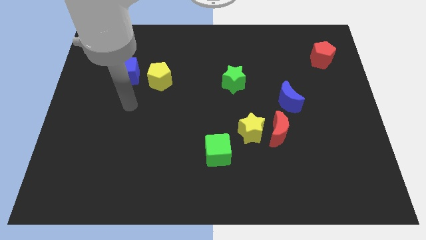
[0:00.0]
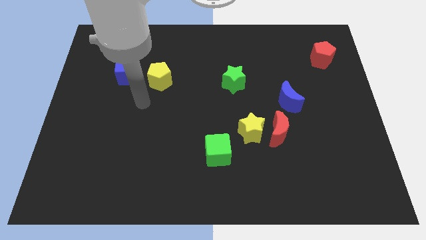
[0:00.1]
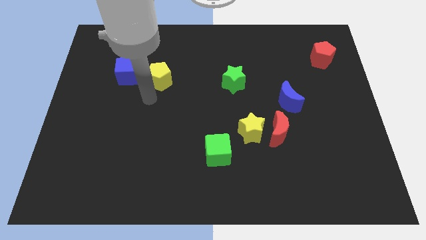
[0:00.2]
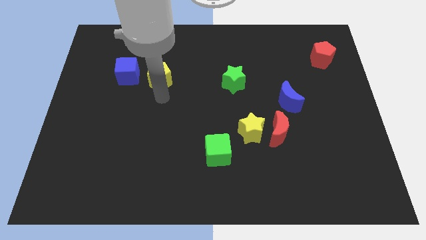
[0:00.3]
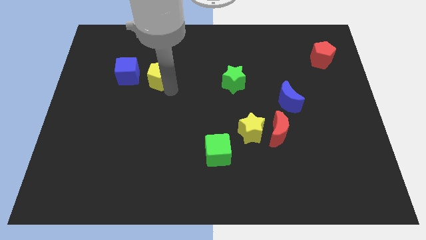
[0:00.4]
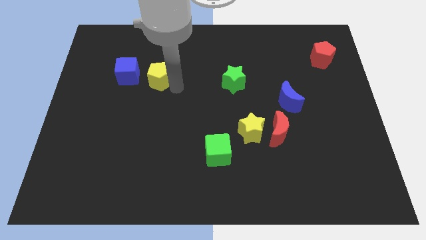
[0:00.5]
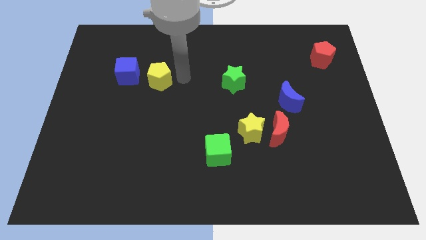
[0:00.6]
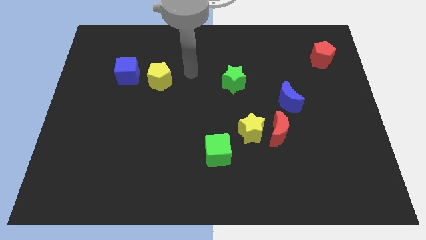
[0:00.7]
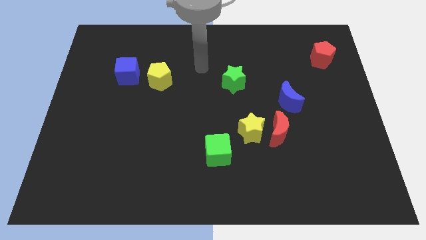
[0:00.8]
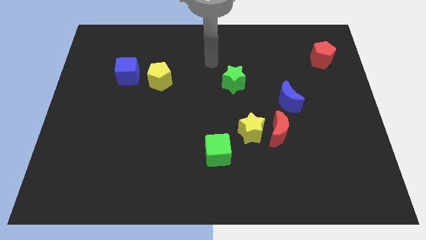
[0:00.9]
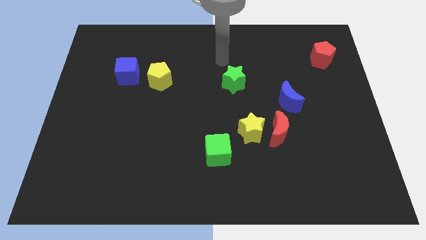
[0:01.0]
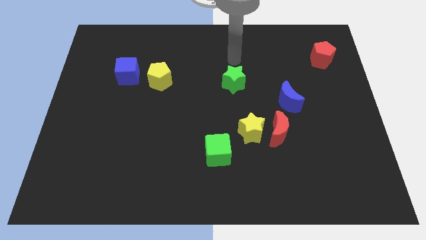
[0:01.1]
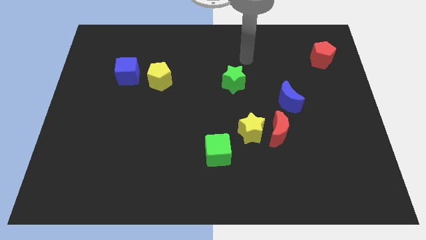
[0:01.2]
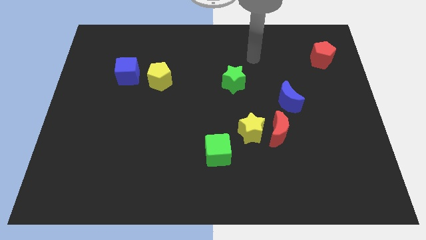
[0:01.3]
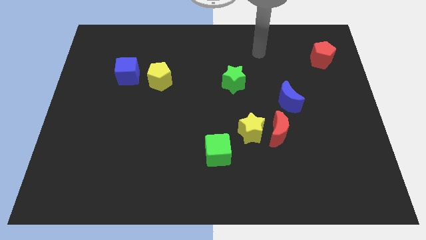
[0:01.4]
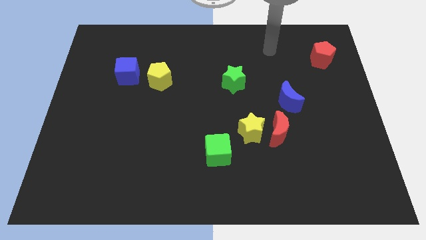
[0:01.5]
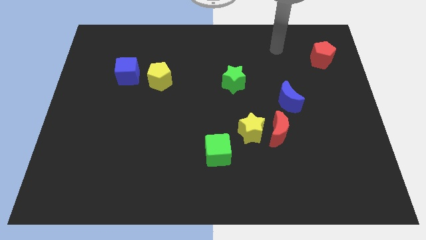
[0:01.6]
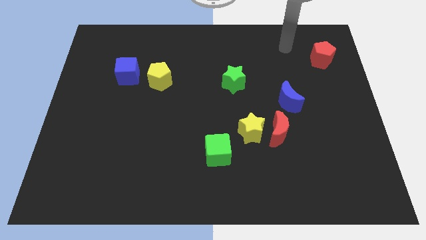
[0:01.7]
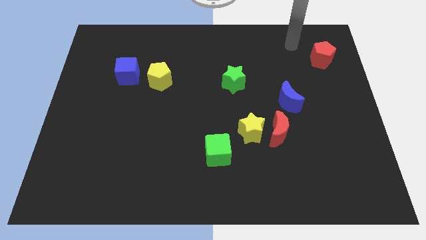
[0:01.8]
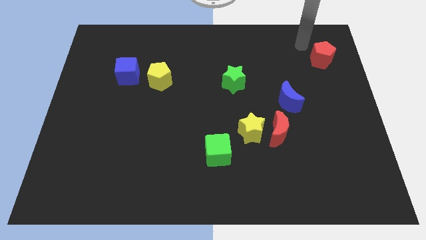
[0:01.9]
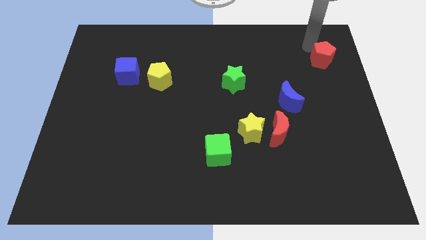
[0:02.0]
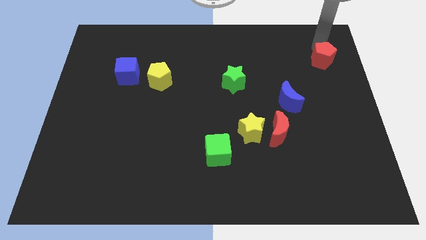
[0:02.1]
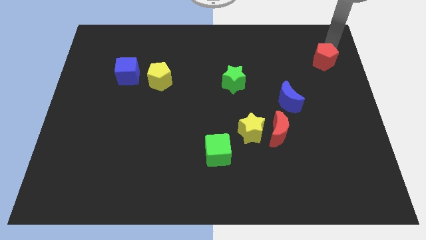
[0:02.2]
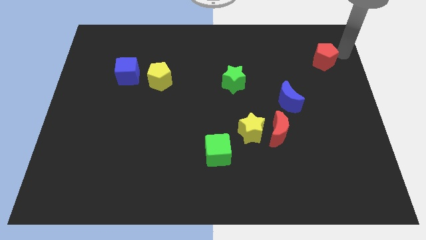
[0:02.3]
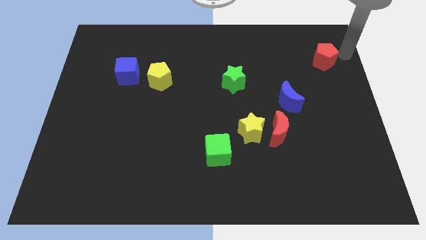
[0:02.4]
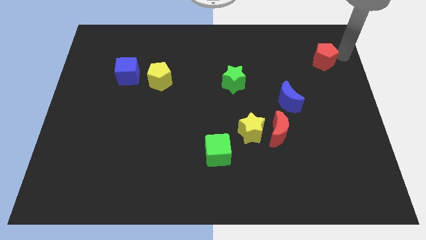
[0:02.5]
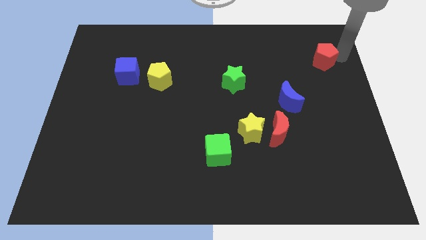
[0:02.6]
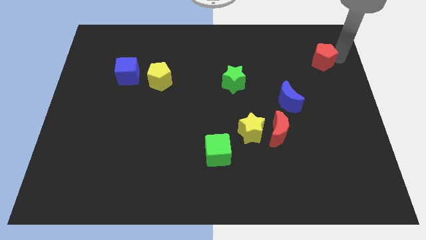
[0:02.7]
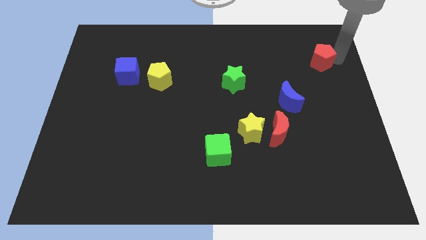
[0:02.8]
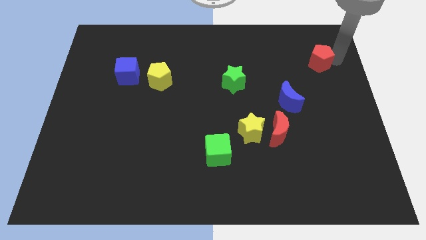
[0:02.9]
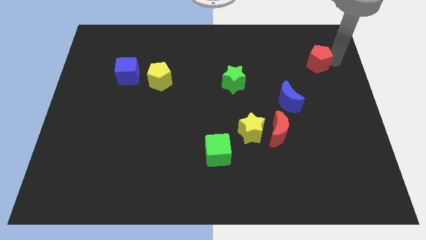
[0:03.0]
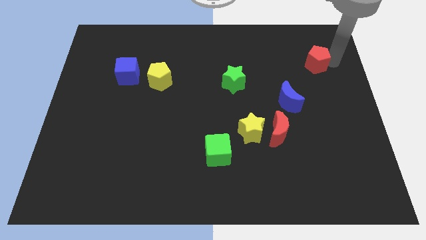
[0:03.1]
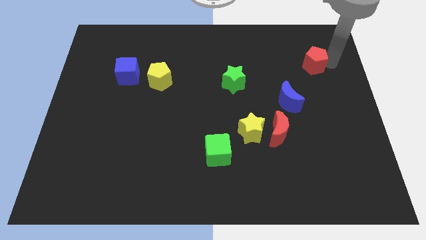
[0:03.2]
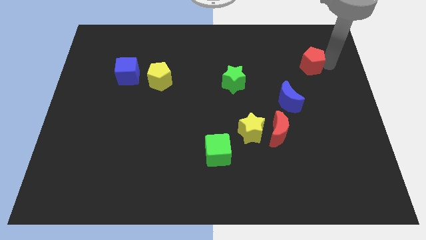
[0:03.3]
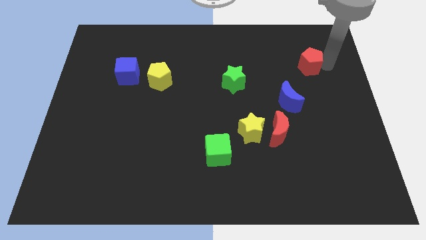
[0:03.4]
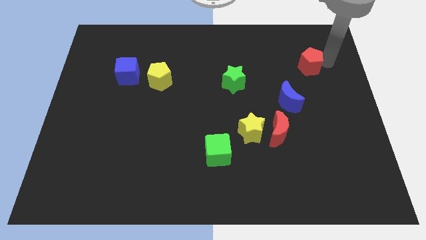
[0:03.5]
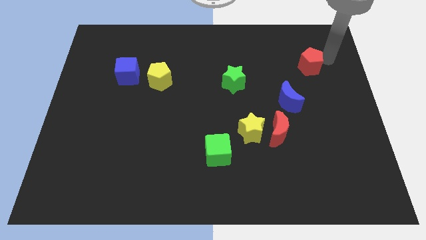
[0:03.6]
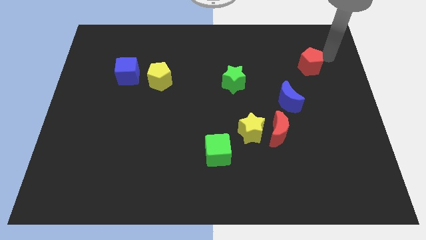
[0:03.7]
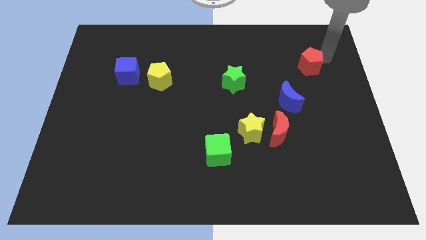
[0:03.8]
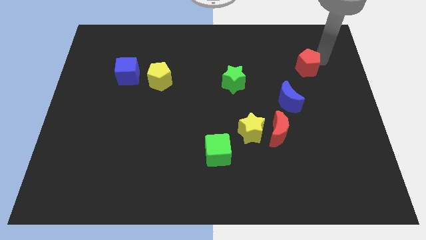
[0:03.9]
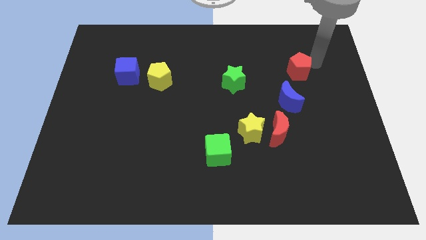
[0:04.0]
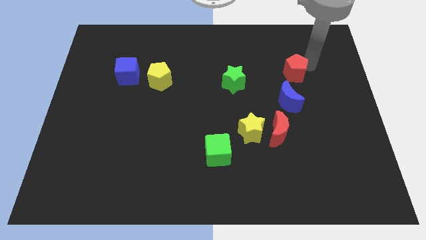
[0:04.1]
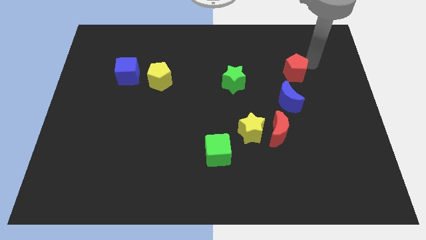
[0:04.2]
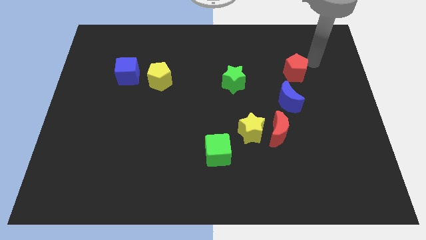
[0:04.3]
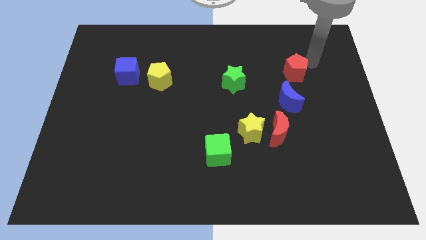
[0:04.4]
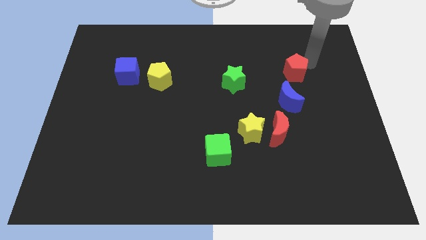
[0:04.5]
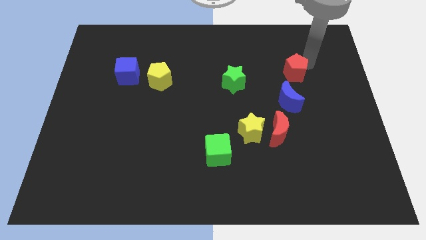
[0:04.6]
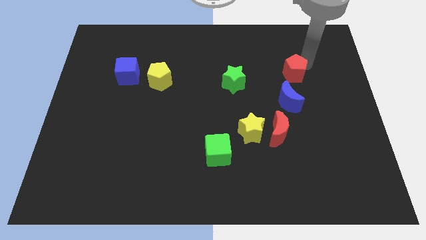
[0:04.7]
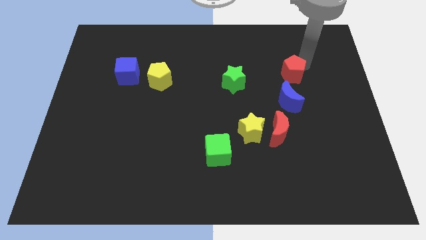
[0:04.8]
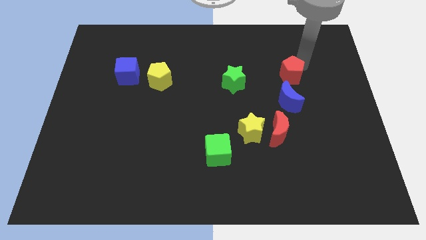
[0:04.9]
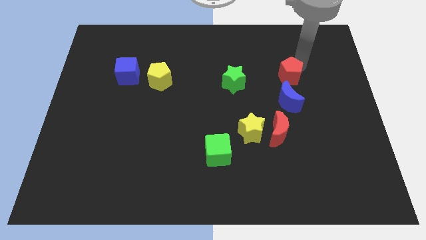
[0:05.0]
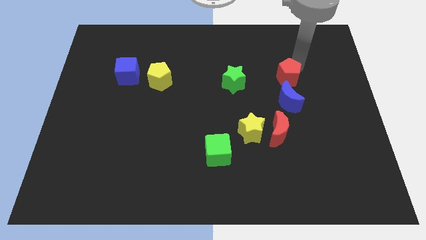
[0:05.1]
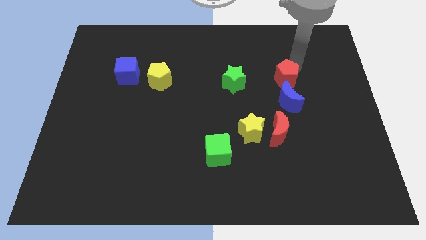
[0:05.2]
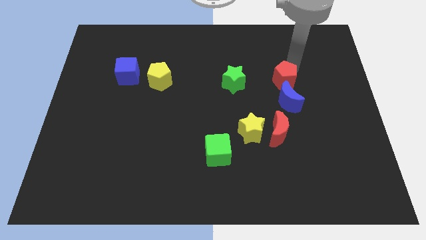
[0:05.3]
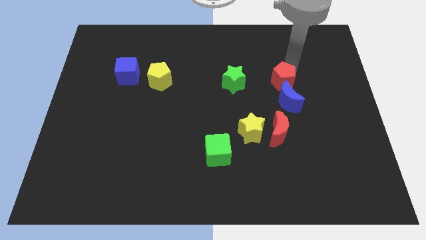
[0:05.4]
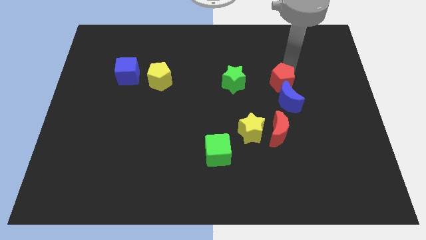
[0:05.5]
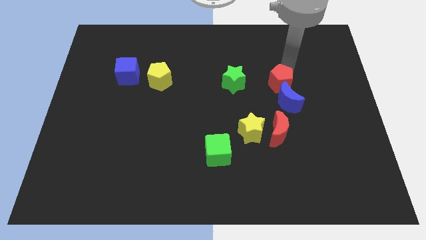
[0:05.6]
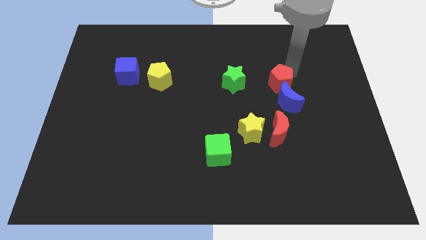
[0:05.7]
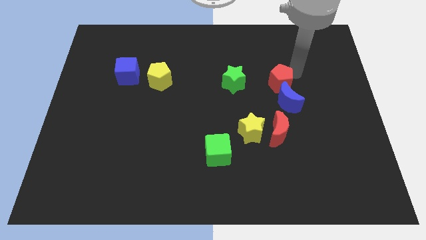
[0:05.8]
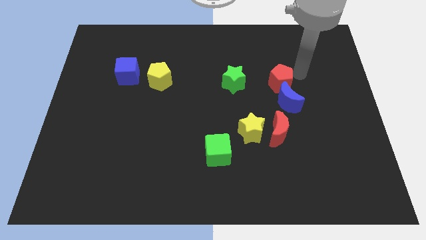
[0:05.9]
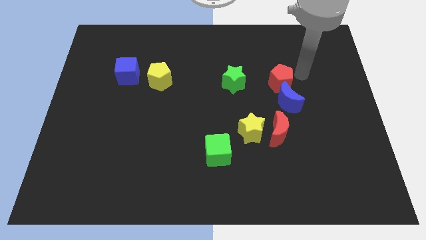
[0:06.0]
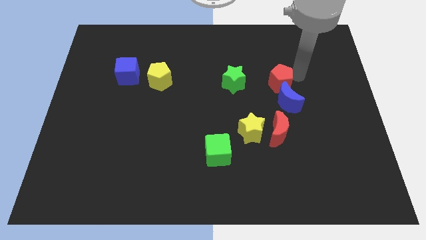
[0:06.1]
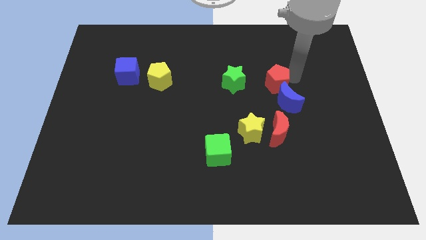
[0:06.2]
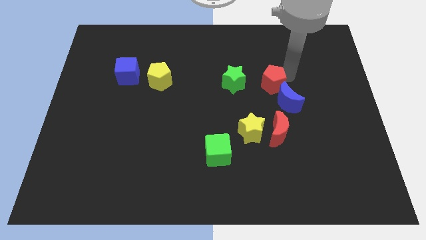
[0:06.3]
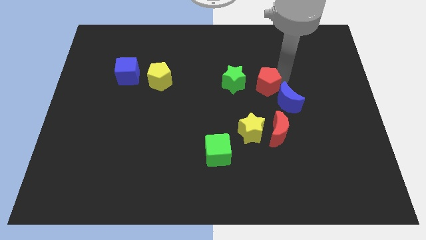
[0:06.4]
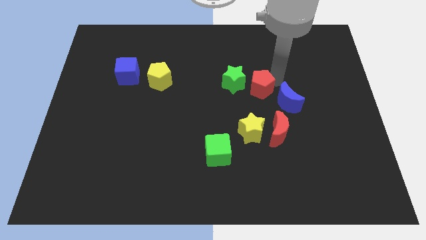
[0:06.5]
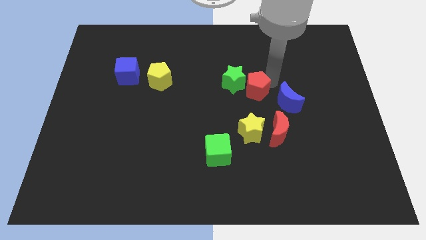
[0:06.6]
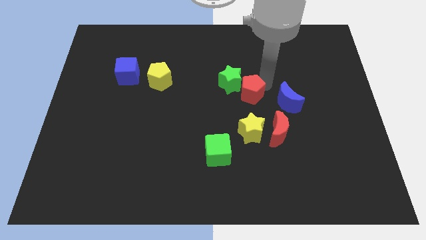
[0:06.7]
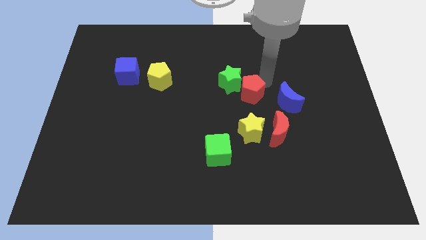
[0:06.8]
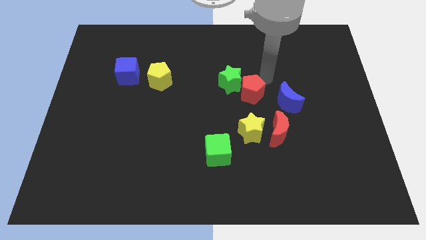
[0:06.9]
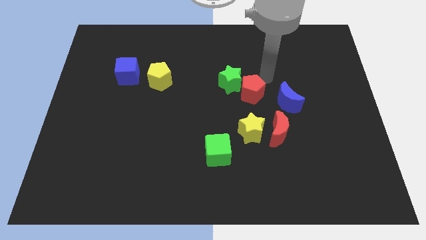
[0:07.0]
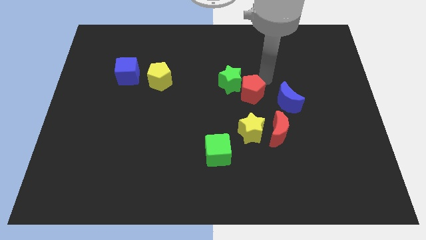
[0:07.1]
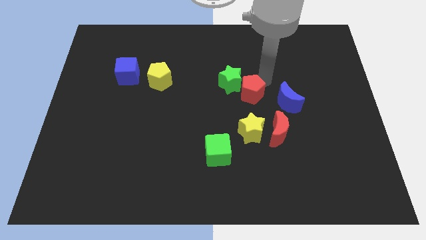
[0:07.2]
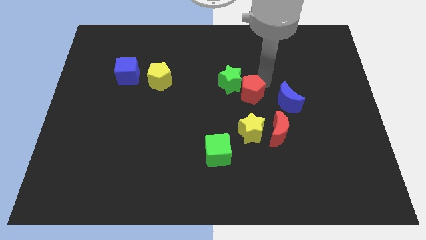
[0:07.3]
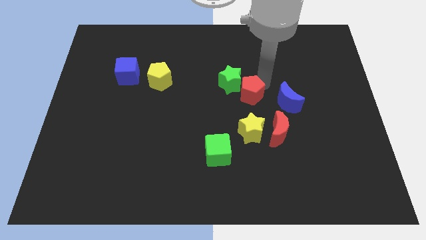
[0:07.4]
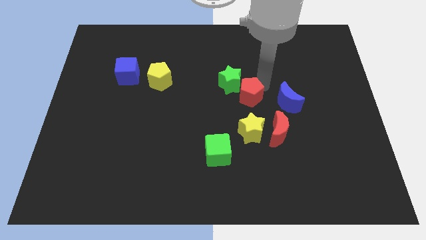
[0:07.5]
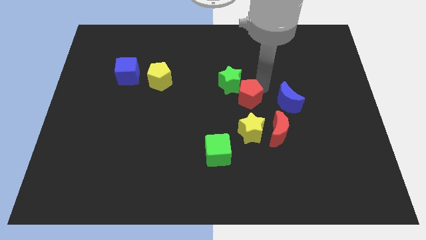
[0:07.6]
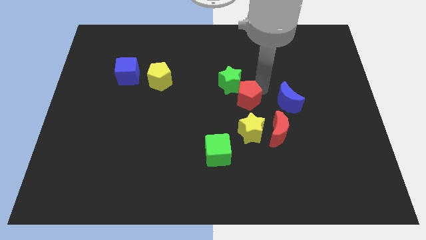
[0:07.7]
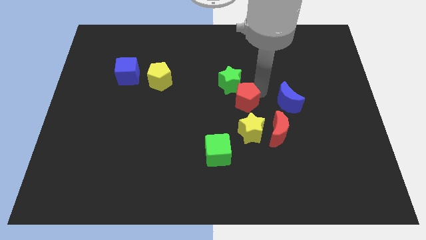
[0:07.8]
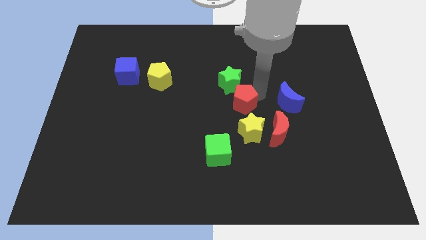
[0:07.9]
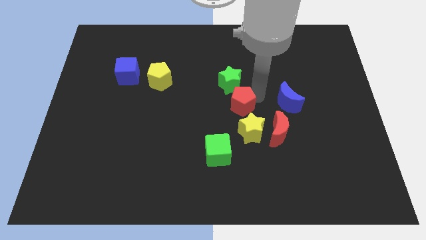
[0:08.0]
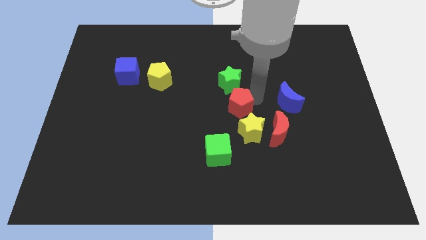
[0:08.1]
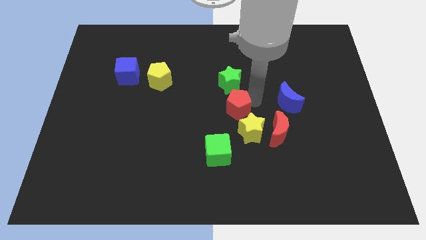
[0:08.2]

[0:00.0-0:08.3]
move the red pentagon above the green cube
